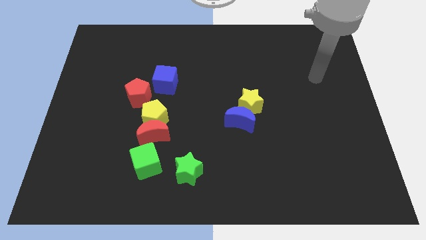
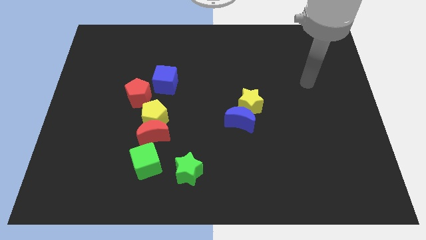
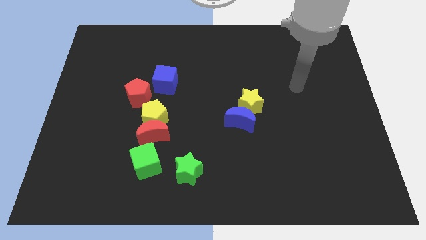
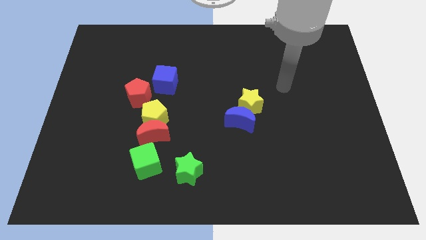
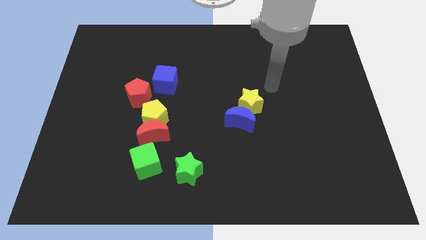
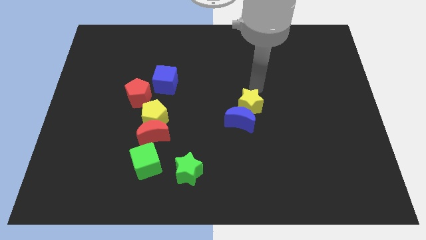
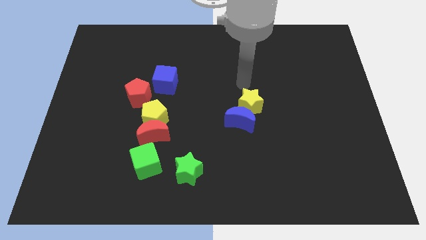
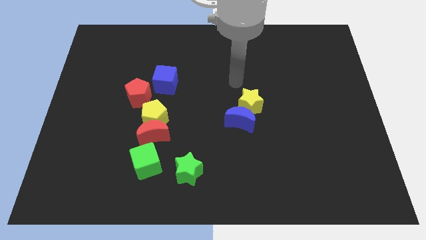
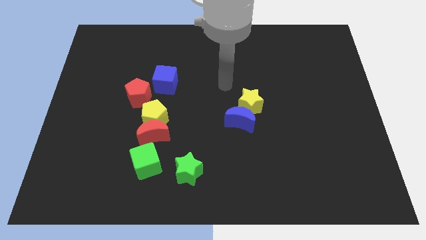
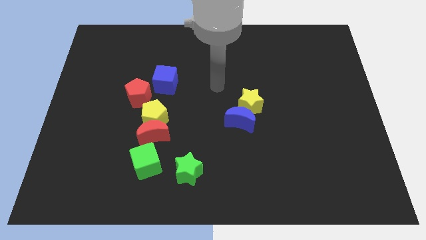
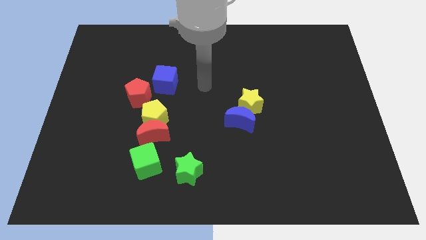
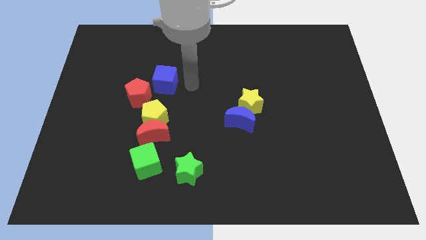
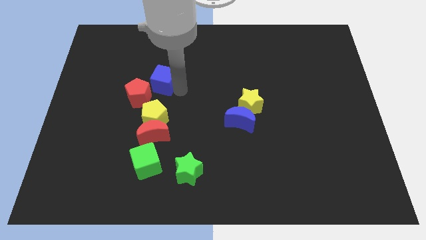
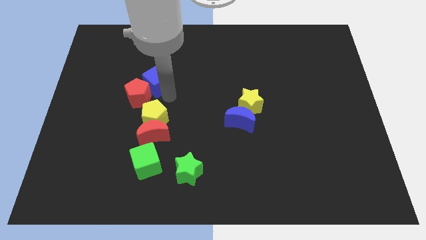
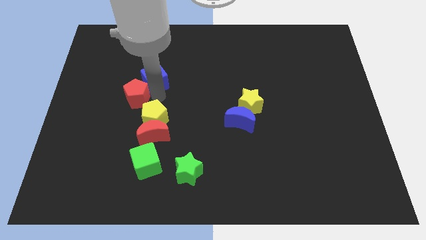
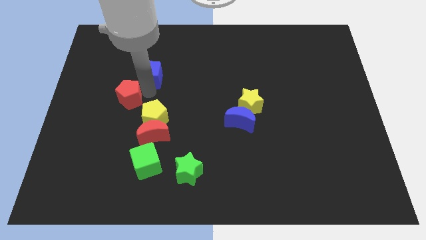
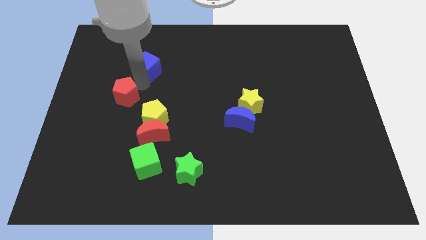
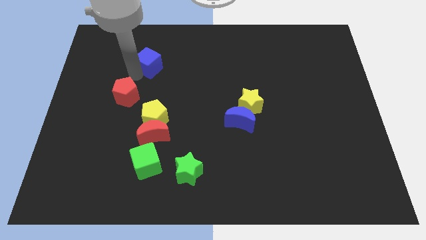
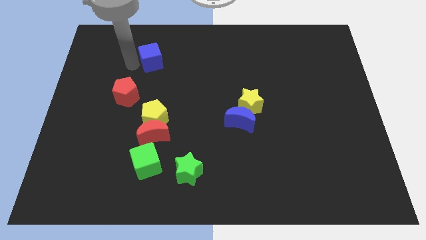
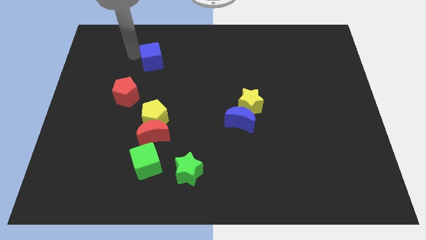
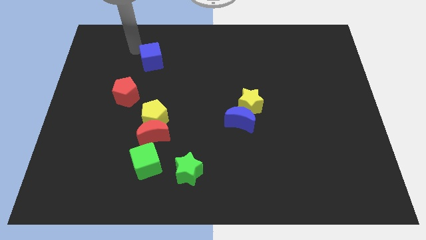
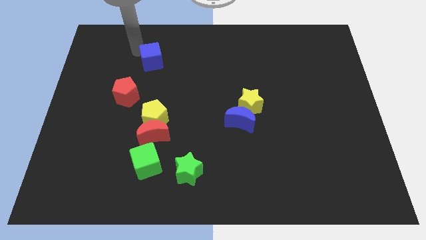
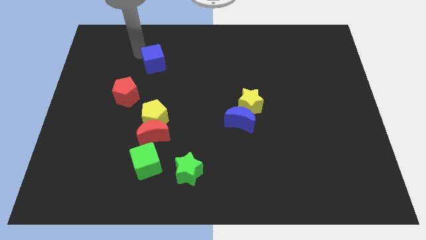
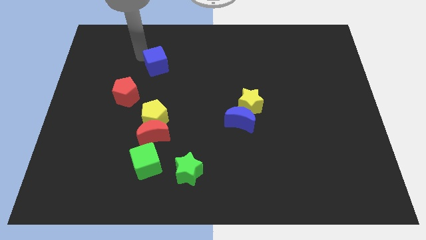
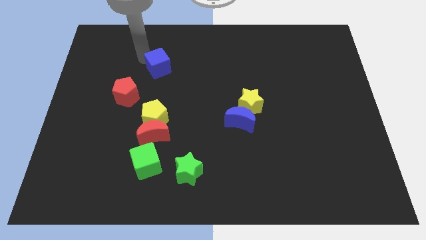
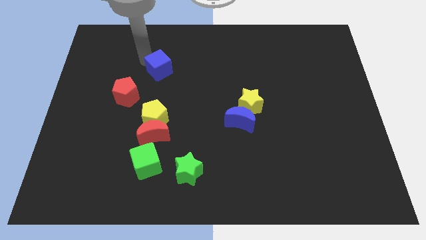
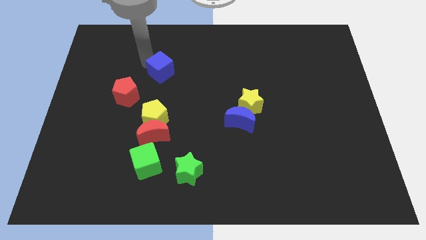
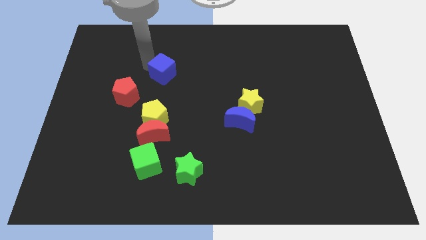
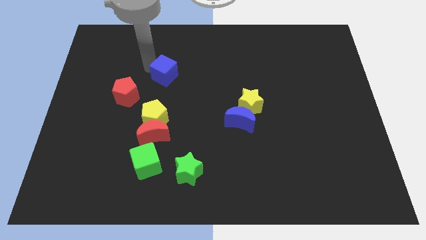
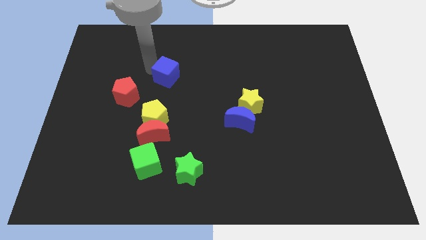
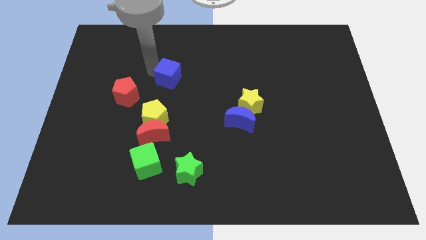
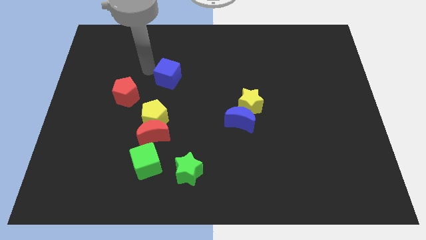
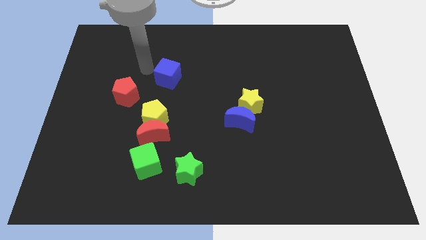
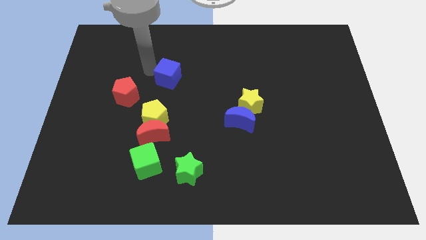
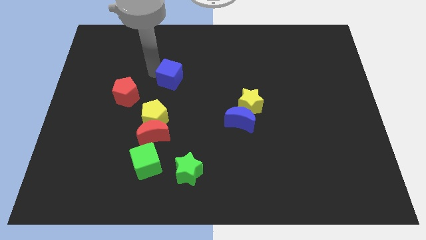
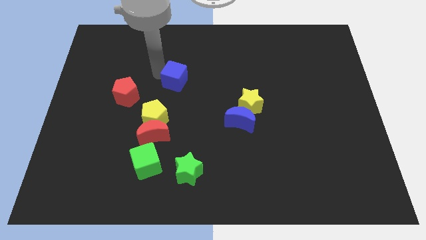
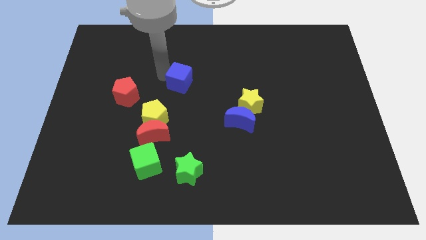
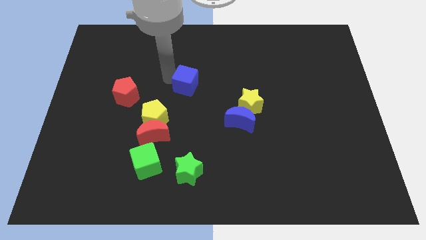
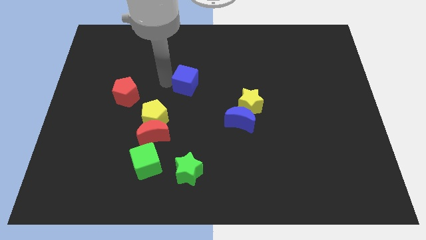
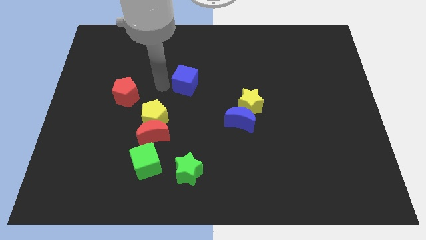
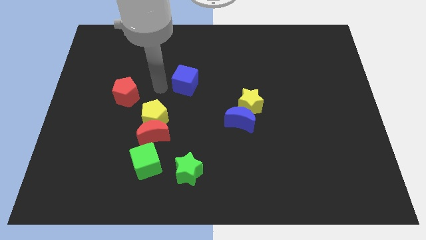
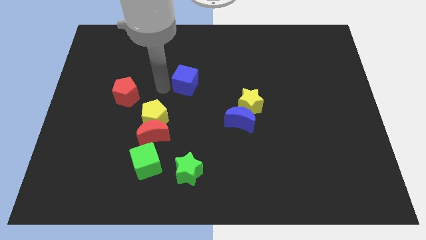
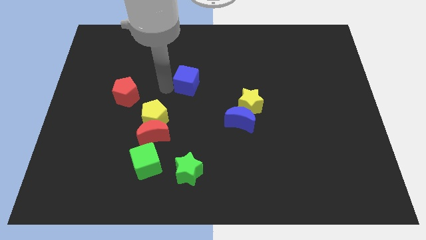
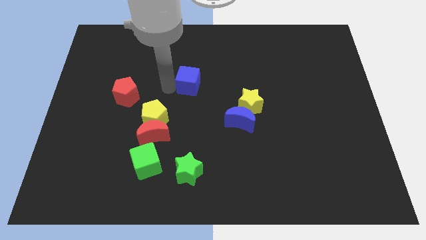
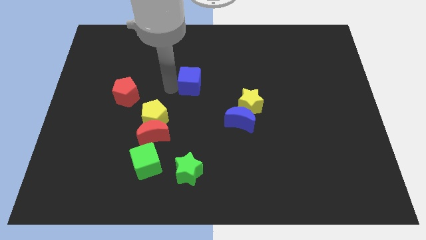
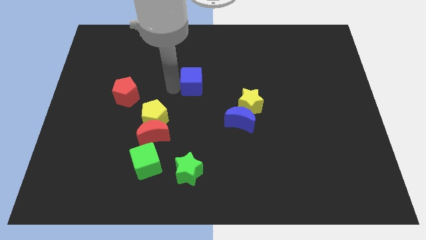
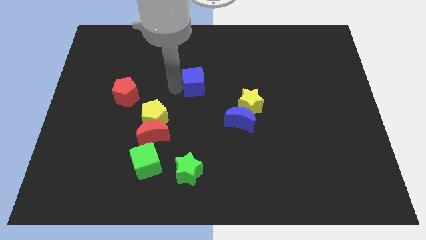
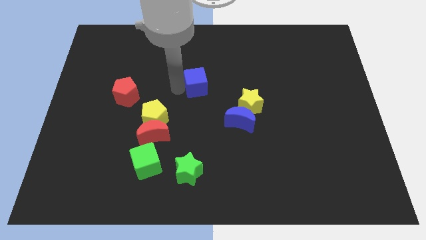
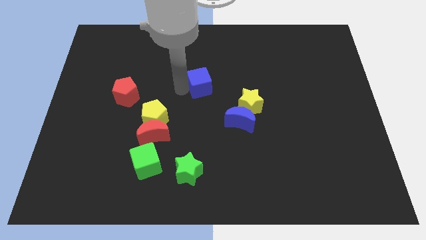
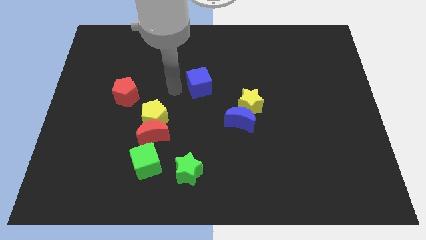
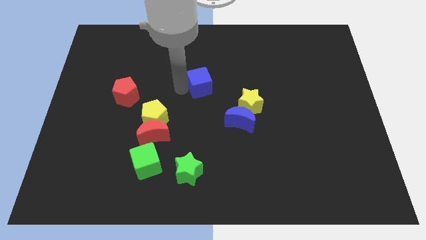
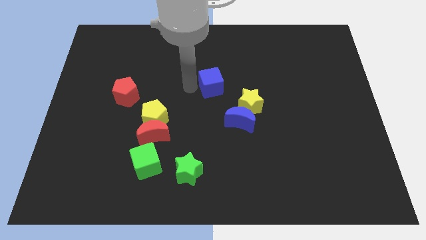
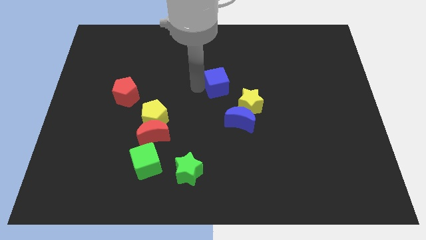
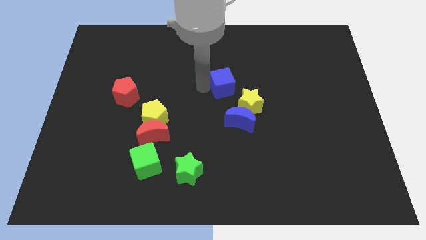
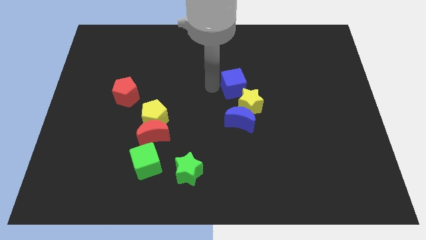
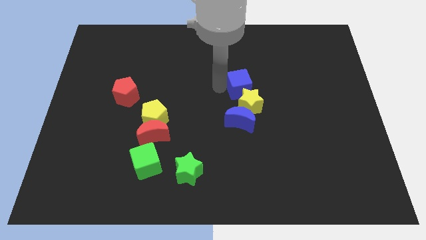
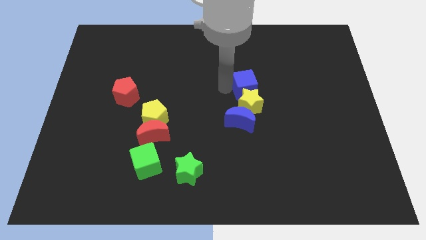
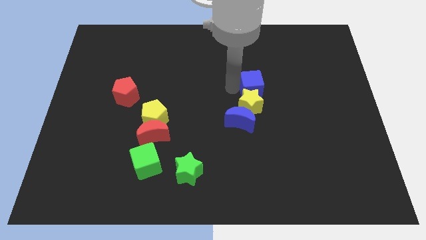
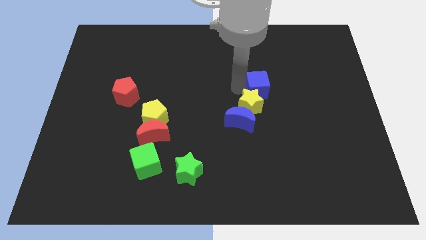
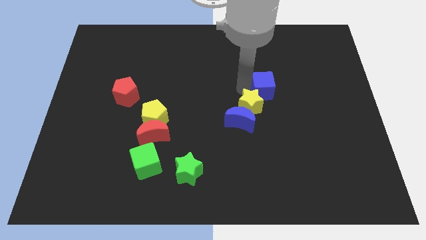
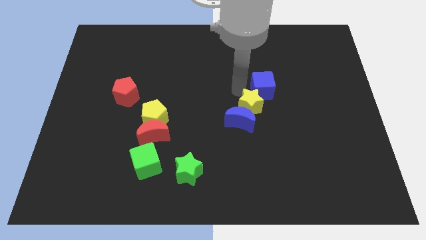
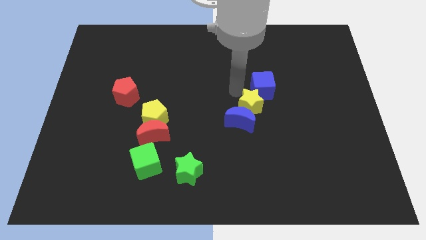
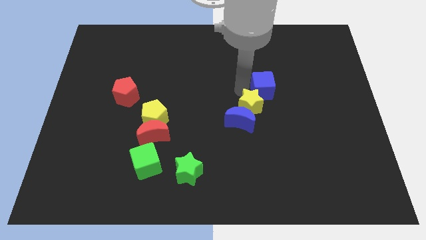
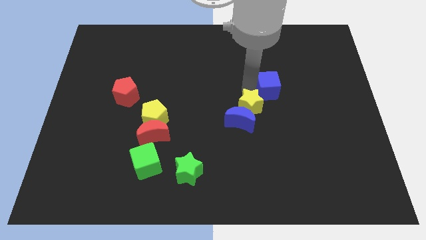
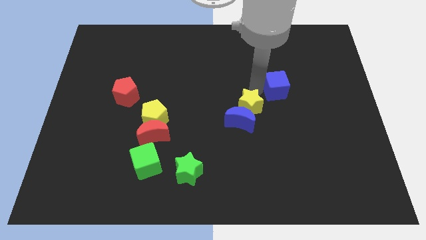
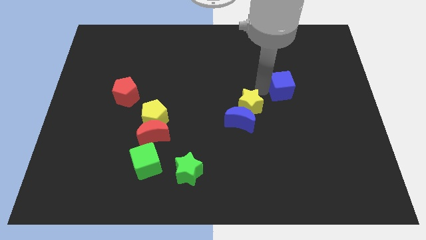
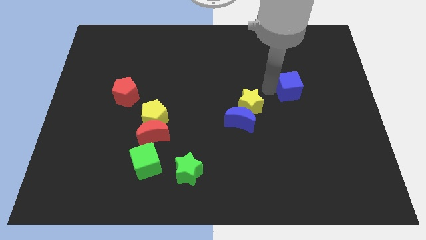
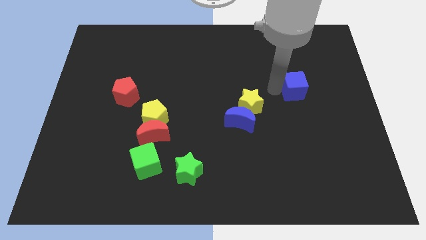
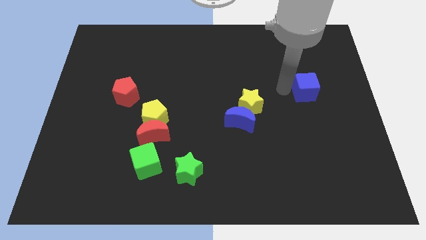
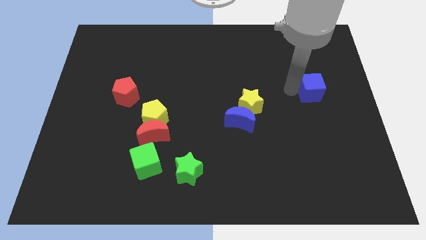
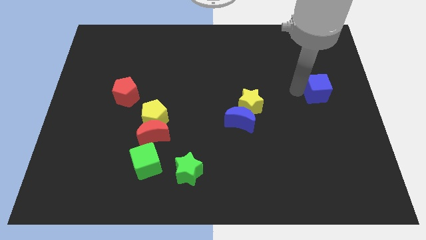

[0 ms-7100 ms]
put the blue cube to the center right
